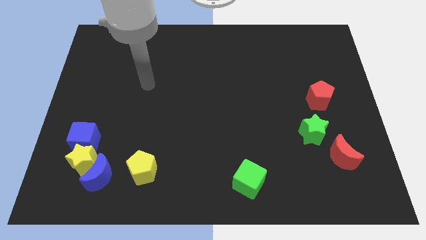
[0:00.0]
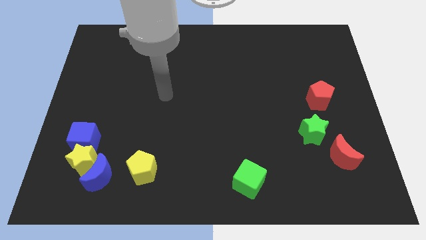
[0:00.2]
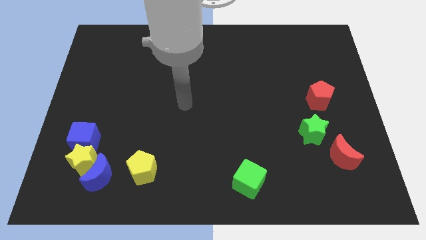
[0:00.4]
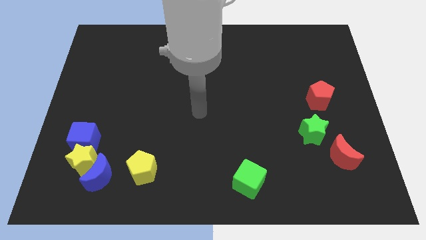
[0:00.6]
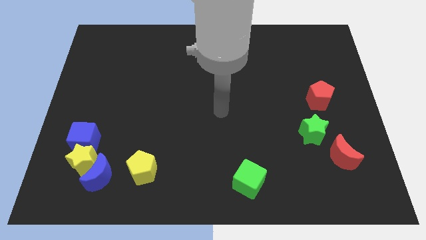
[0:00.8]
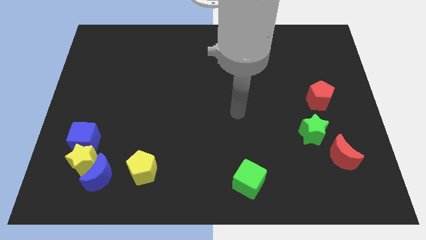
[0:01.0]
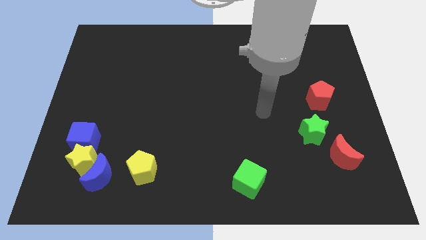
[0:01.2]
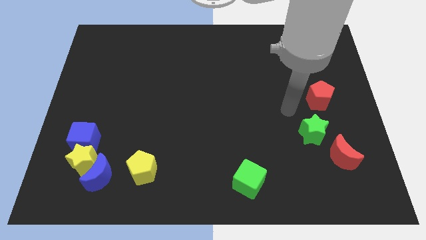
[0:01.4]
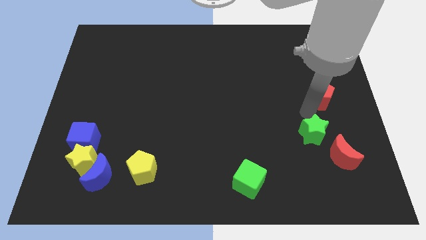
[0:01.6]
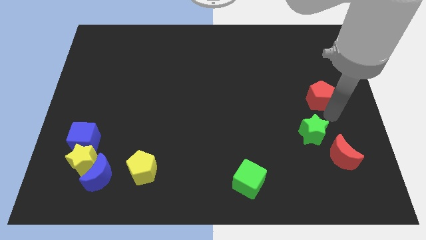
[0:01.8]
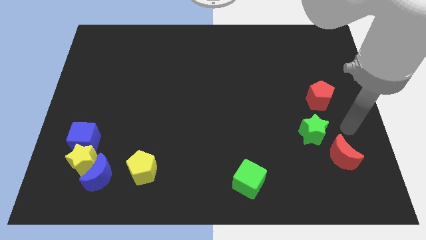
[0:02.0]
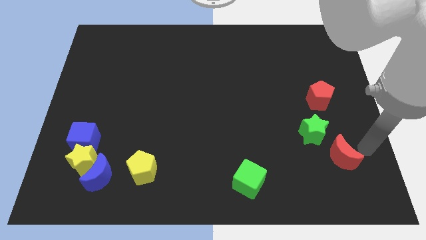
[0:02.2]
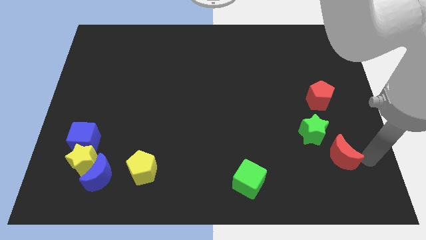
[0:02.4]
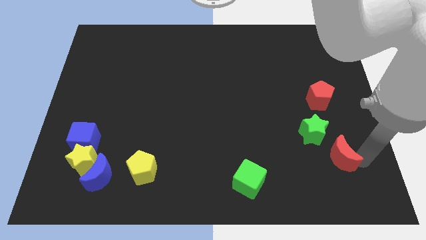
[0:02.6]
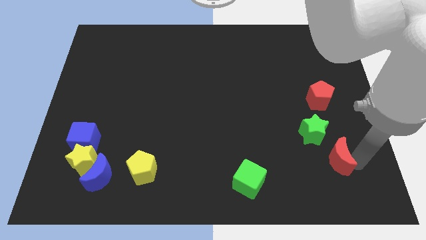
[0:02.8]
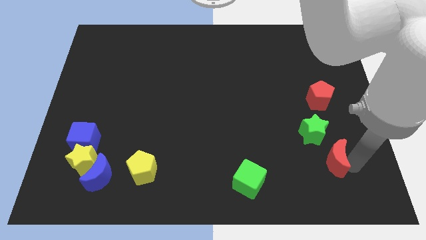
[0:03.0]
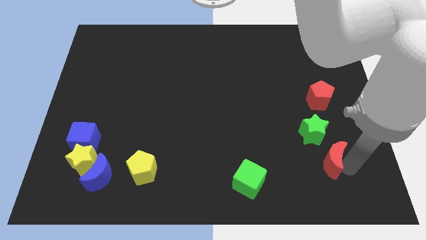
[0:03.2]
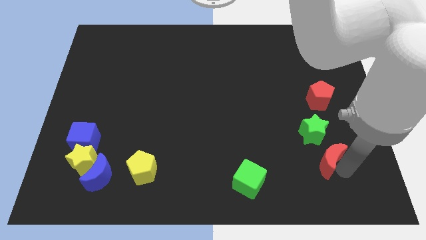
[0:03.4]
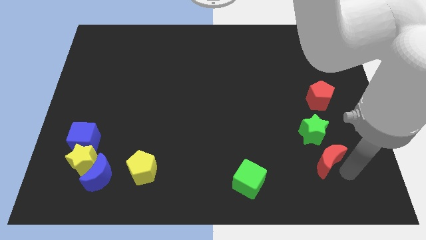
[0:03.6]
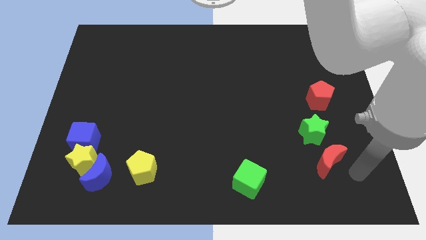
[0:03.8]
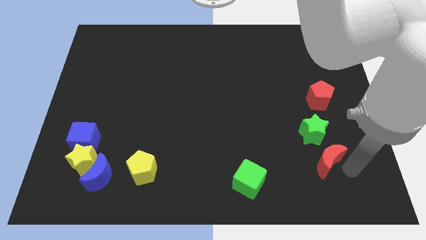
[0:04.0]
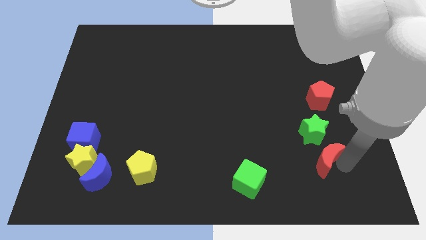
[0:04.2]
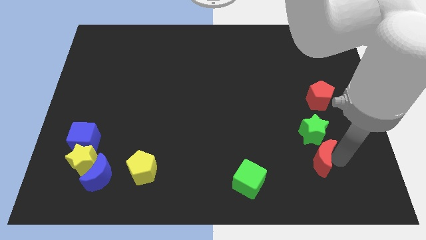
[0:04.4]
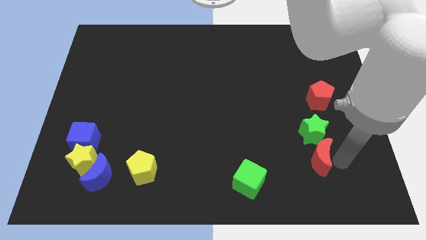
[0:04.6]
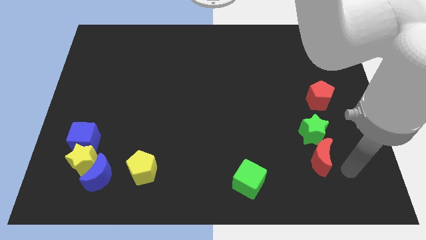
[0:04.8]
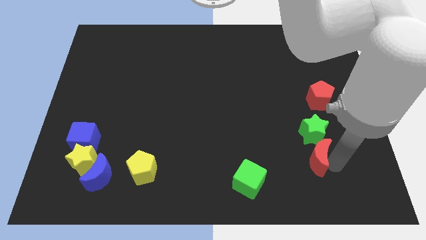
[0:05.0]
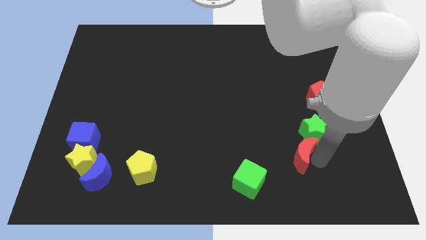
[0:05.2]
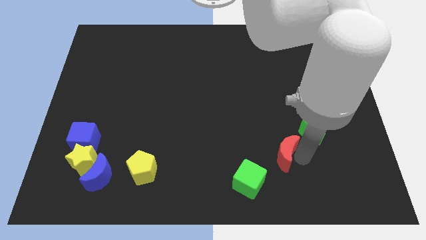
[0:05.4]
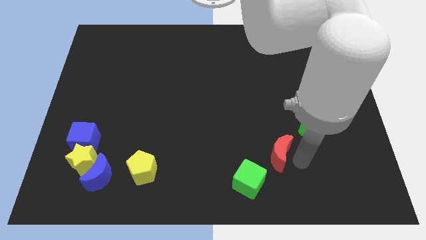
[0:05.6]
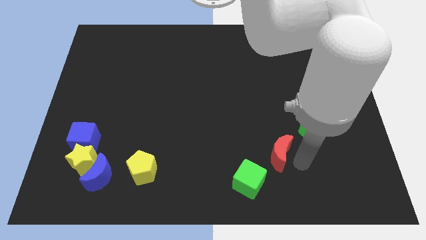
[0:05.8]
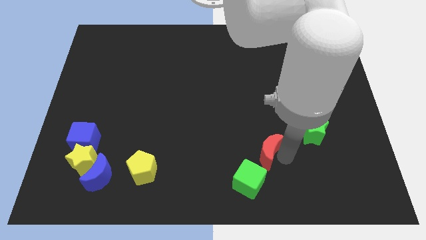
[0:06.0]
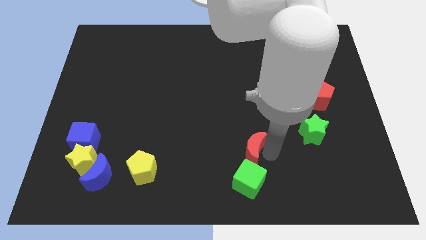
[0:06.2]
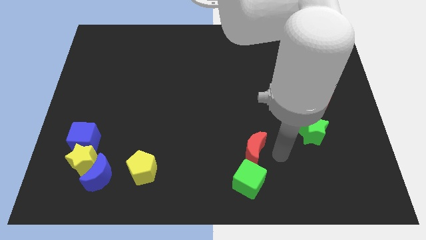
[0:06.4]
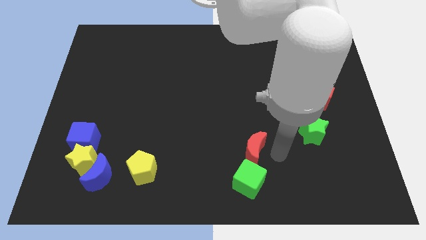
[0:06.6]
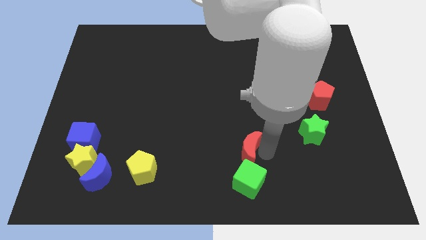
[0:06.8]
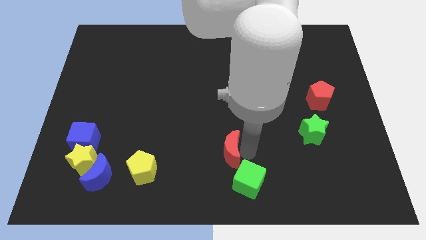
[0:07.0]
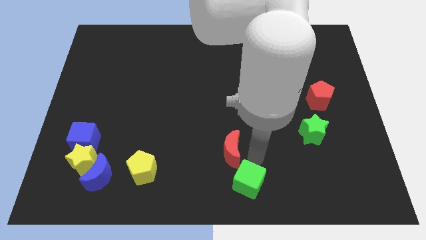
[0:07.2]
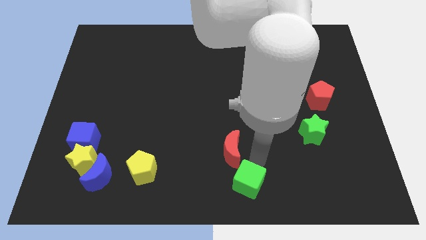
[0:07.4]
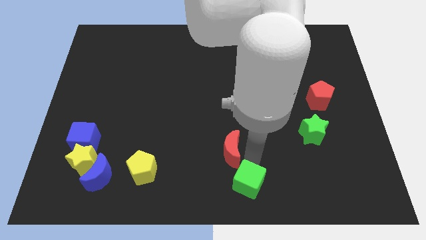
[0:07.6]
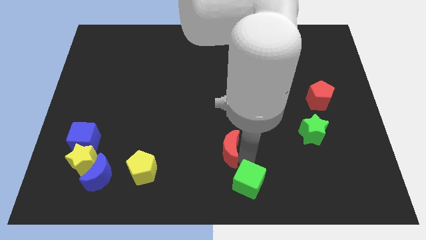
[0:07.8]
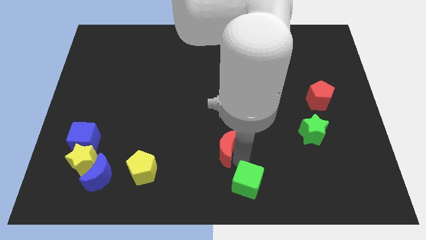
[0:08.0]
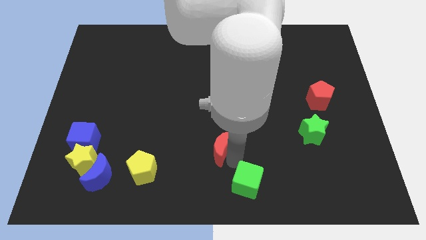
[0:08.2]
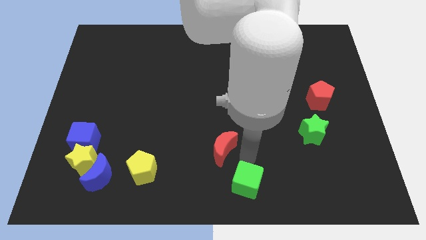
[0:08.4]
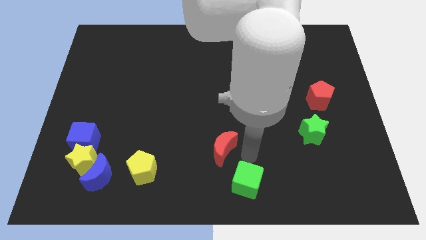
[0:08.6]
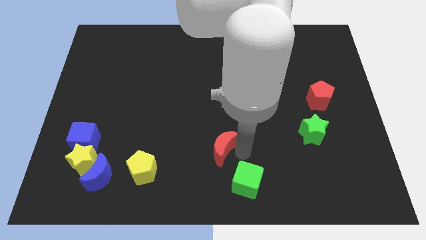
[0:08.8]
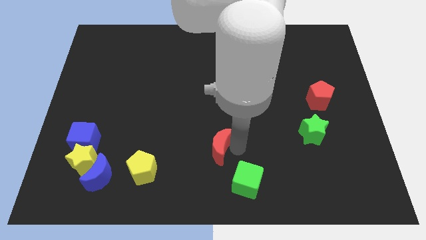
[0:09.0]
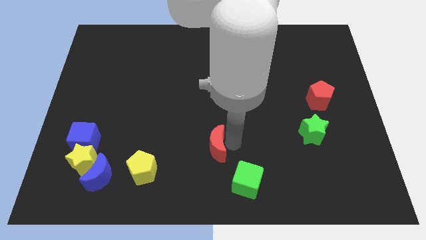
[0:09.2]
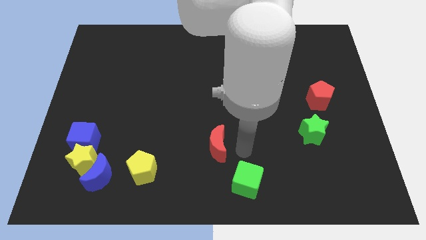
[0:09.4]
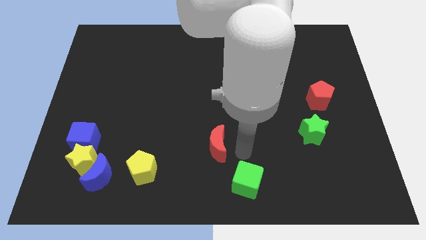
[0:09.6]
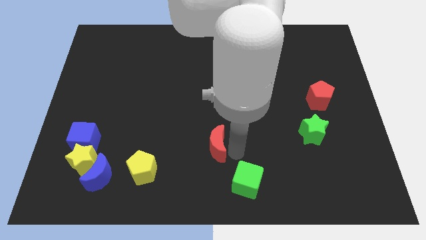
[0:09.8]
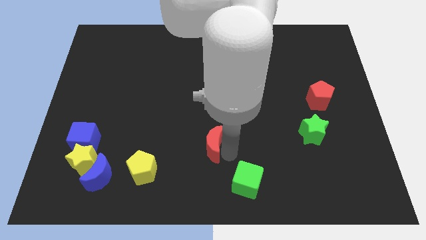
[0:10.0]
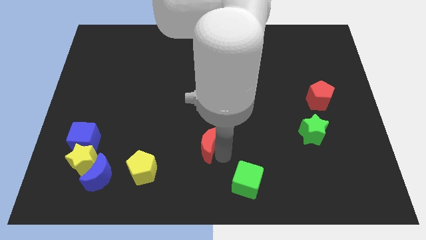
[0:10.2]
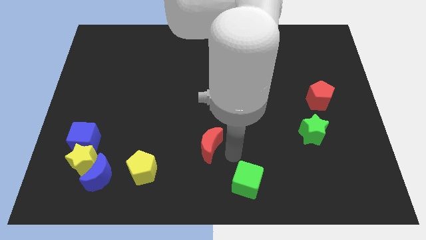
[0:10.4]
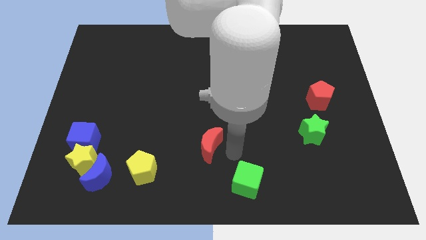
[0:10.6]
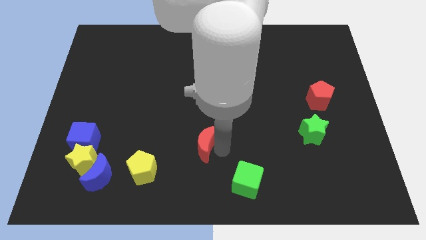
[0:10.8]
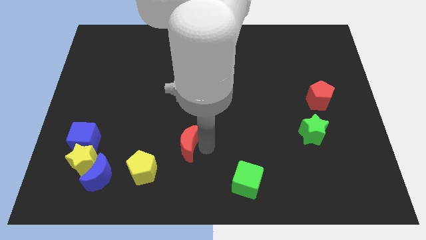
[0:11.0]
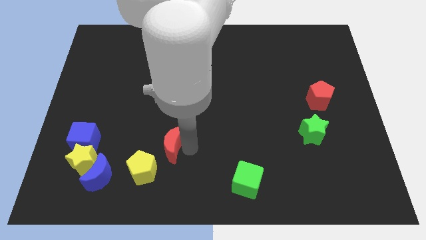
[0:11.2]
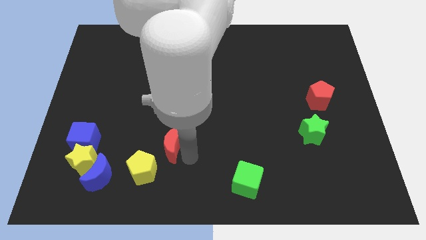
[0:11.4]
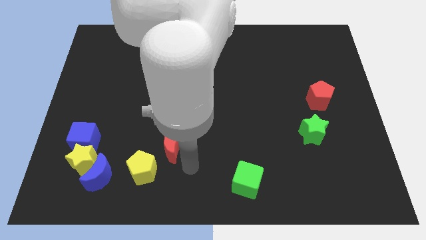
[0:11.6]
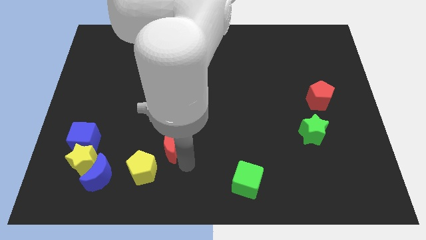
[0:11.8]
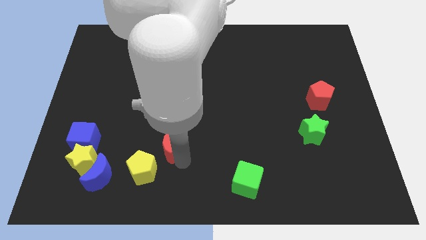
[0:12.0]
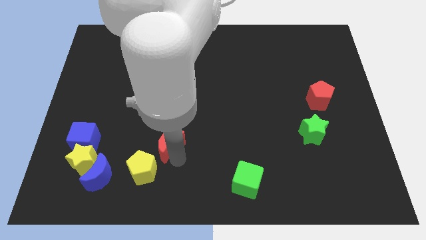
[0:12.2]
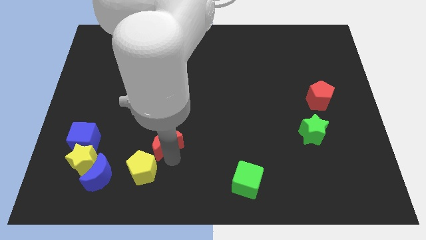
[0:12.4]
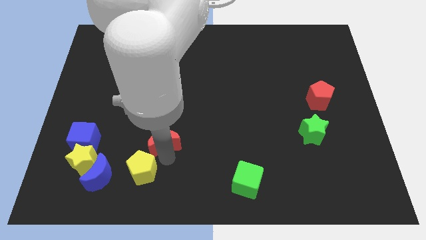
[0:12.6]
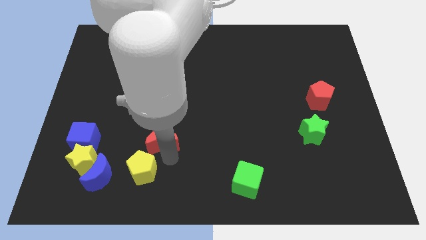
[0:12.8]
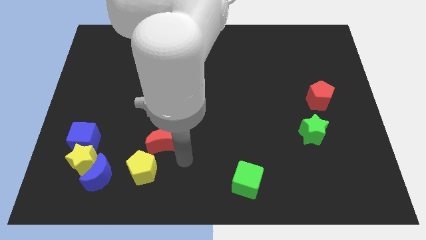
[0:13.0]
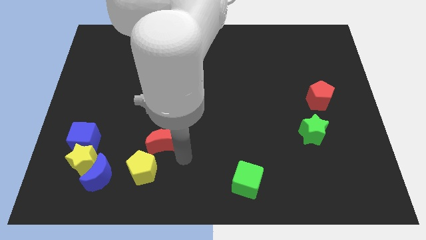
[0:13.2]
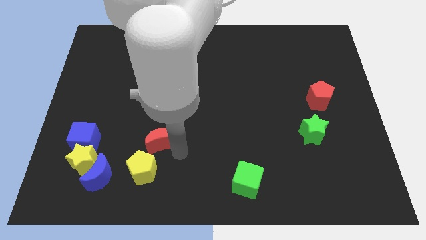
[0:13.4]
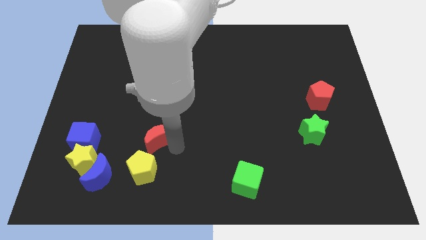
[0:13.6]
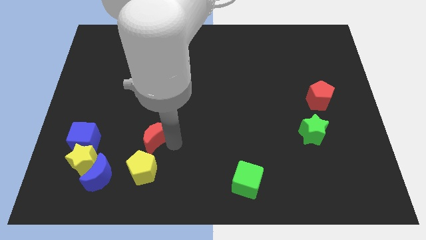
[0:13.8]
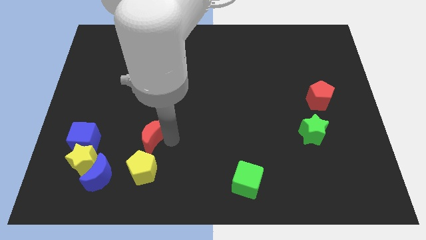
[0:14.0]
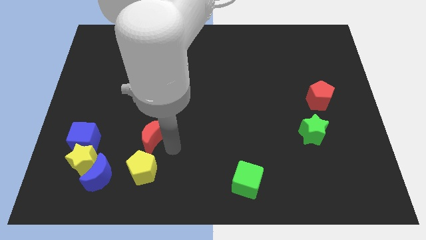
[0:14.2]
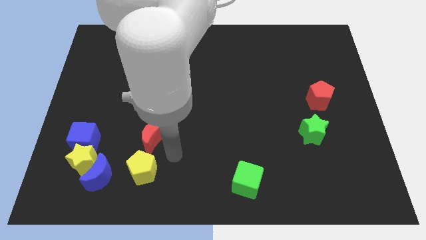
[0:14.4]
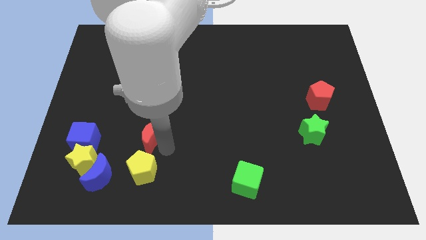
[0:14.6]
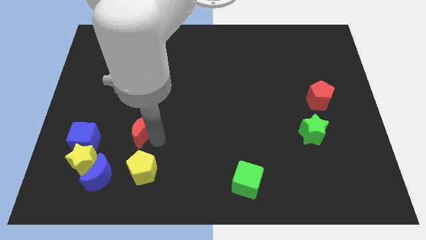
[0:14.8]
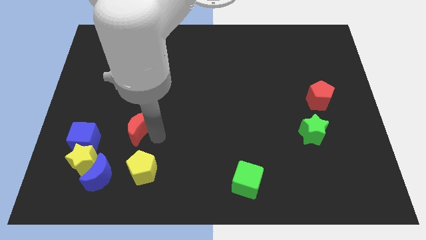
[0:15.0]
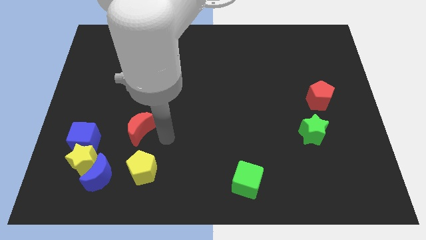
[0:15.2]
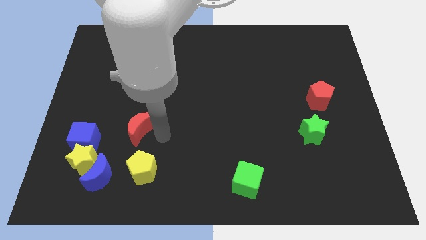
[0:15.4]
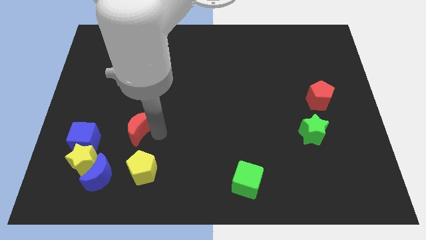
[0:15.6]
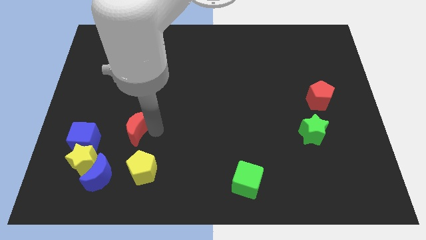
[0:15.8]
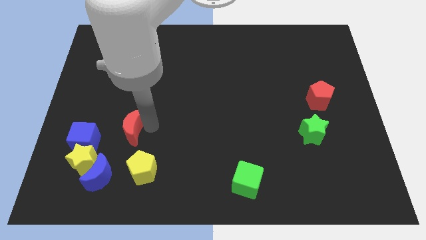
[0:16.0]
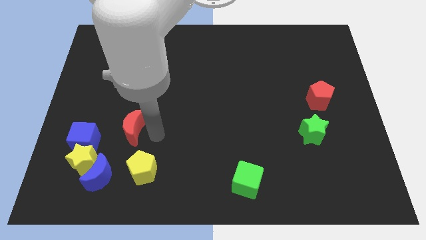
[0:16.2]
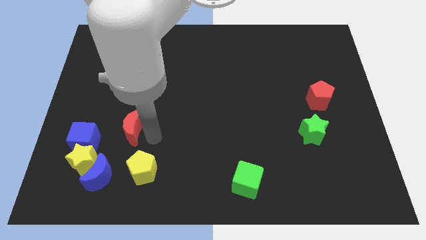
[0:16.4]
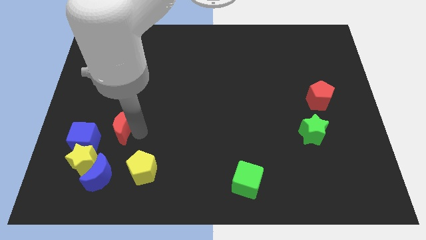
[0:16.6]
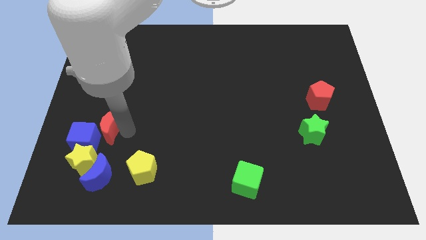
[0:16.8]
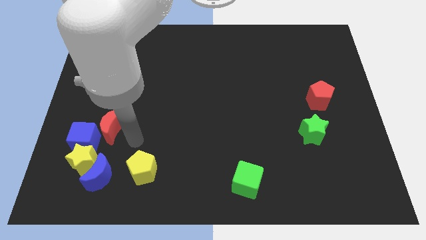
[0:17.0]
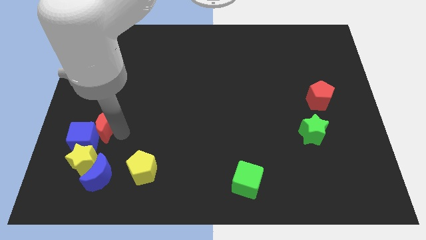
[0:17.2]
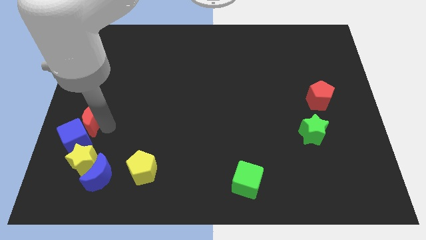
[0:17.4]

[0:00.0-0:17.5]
push the red moon to the left side of the board
